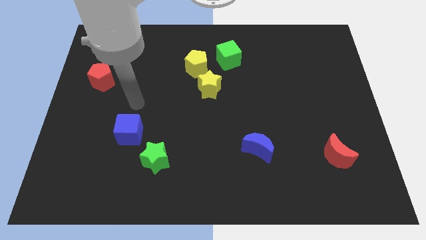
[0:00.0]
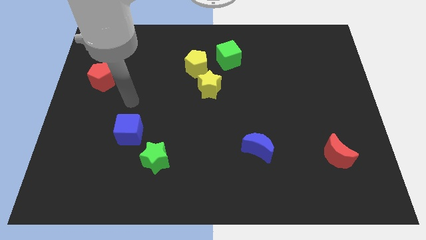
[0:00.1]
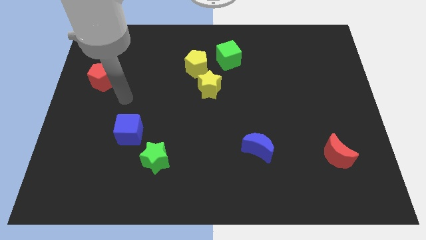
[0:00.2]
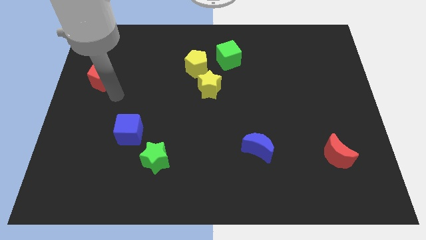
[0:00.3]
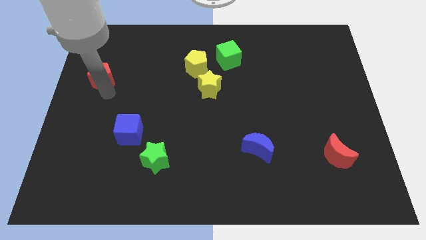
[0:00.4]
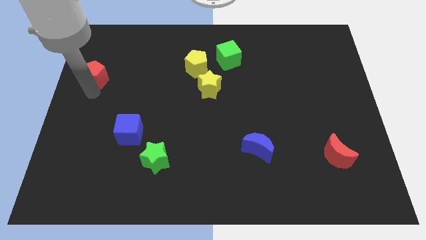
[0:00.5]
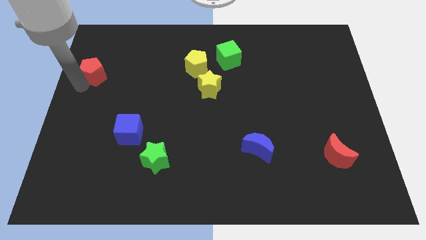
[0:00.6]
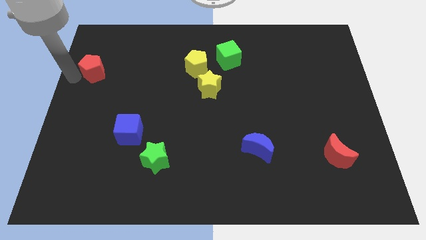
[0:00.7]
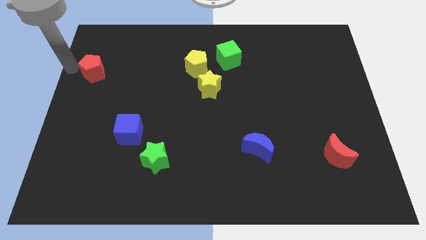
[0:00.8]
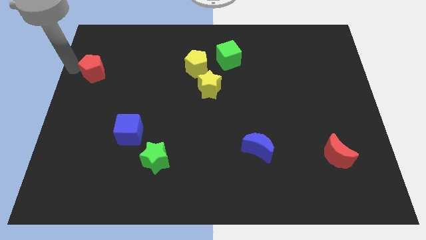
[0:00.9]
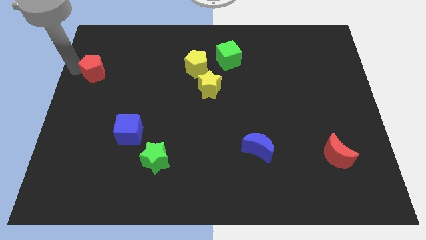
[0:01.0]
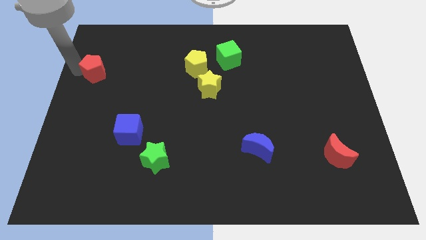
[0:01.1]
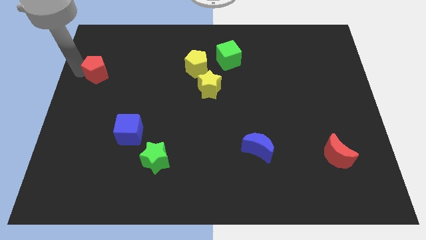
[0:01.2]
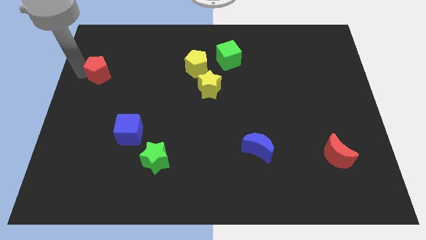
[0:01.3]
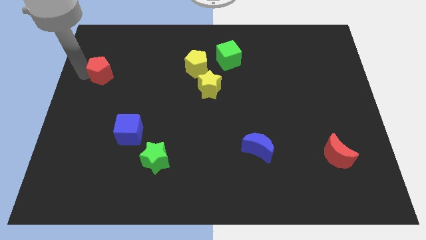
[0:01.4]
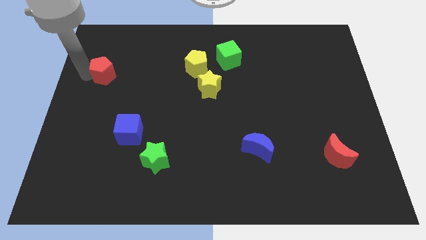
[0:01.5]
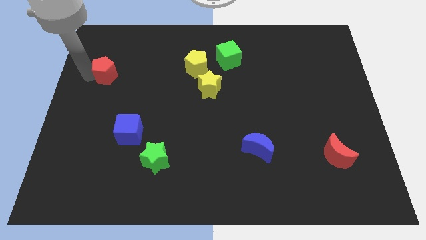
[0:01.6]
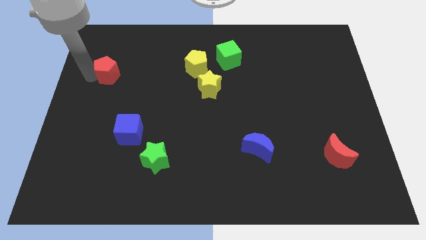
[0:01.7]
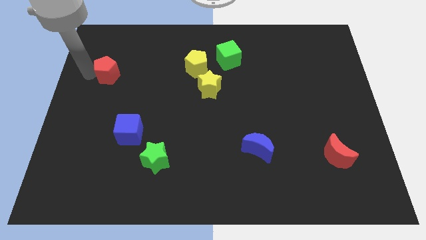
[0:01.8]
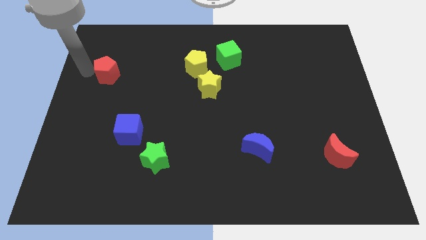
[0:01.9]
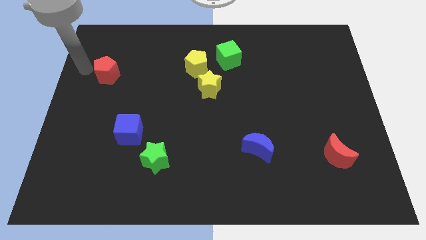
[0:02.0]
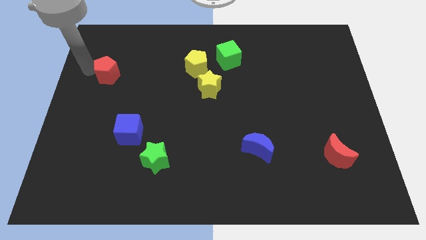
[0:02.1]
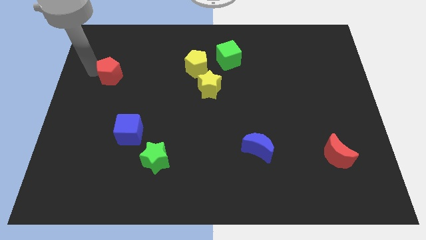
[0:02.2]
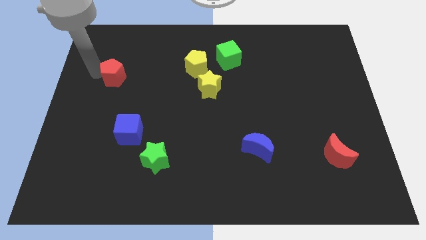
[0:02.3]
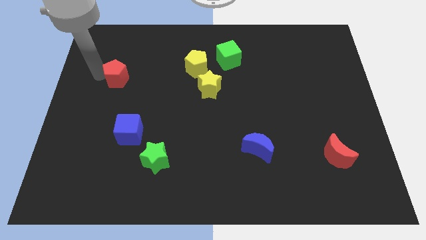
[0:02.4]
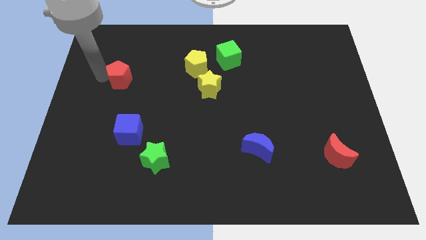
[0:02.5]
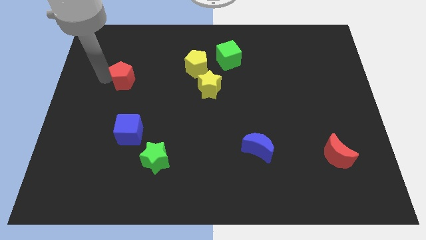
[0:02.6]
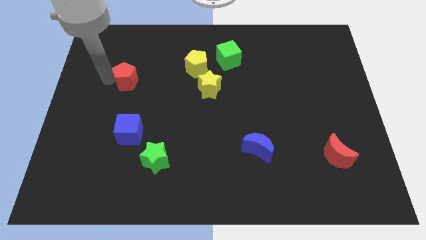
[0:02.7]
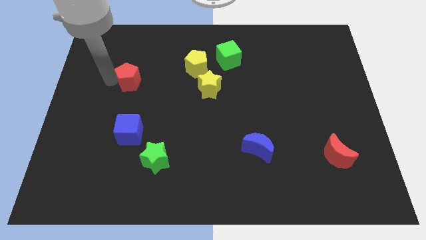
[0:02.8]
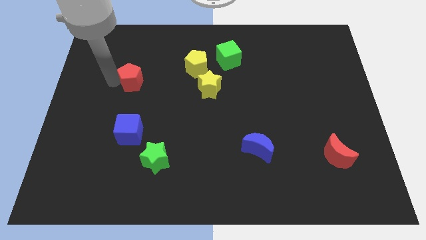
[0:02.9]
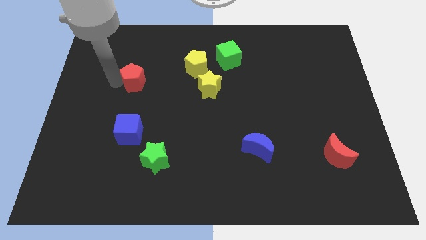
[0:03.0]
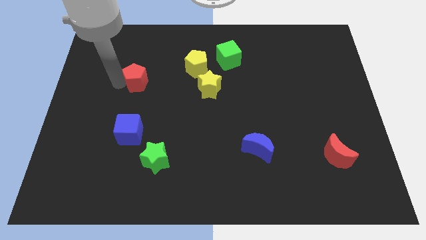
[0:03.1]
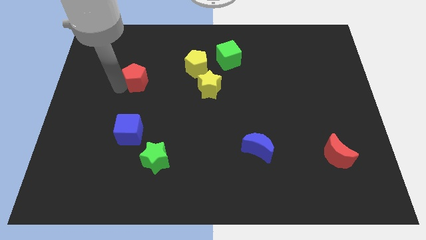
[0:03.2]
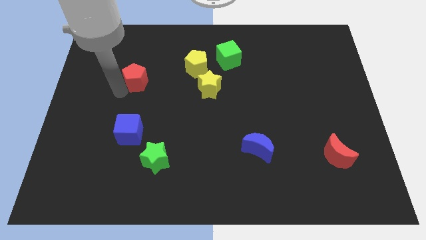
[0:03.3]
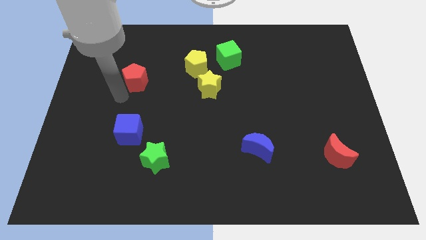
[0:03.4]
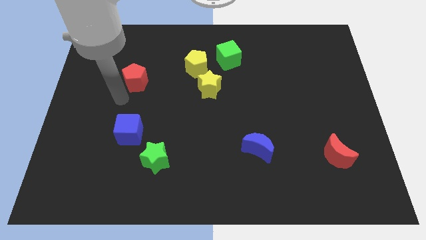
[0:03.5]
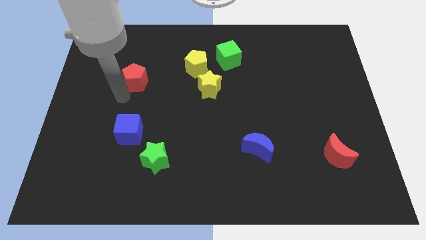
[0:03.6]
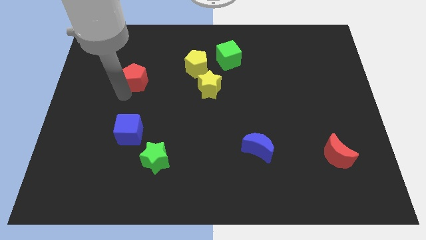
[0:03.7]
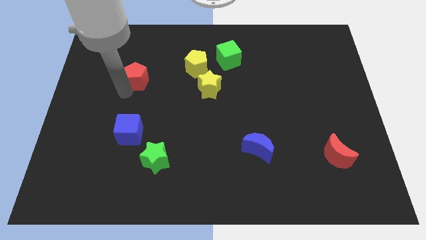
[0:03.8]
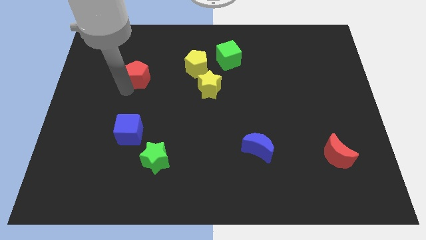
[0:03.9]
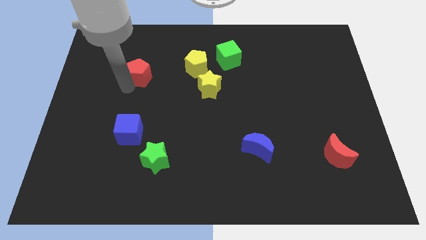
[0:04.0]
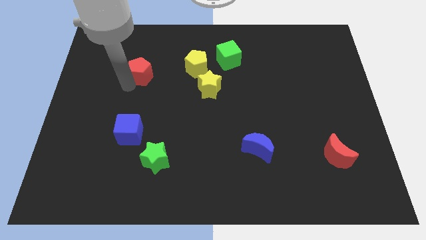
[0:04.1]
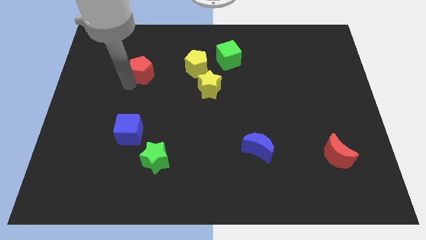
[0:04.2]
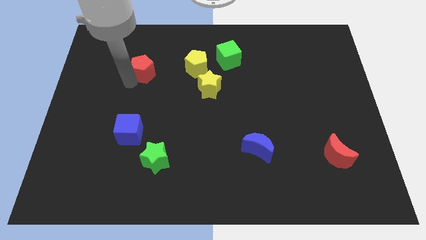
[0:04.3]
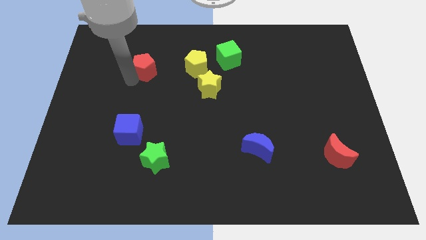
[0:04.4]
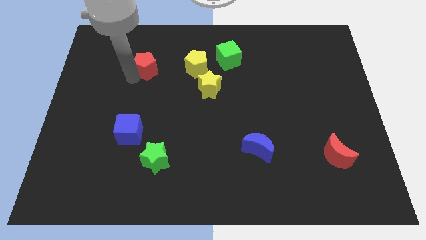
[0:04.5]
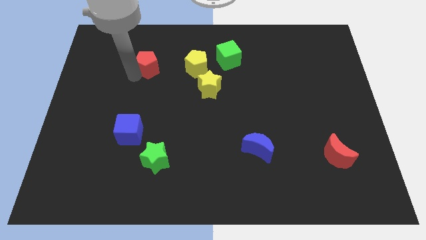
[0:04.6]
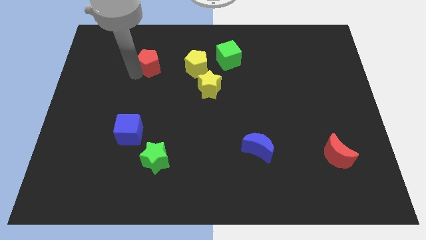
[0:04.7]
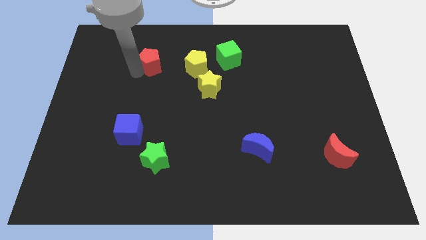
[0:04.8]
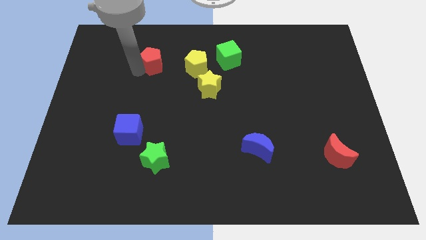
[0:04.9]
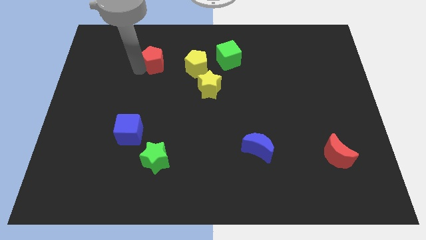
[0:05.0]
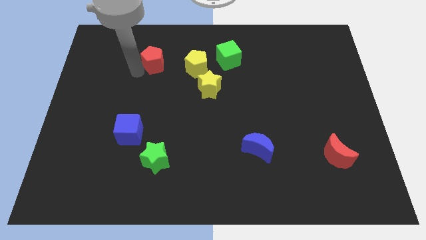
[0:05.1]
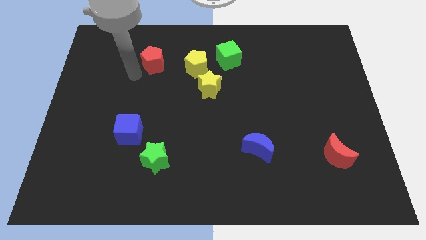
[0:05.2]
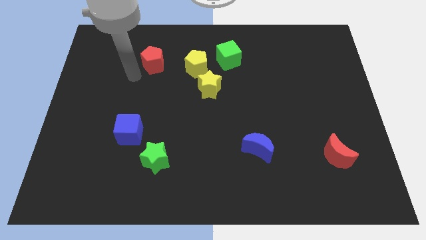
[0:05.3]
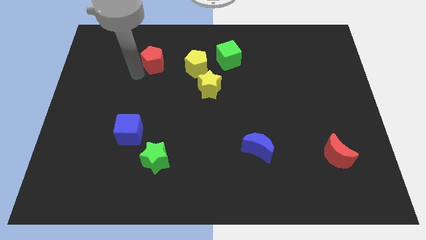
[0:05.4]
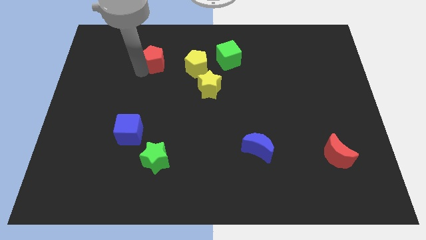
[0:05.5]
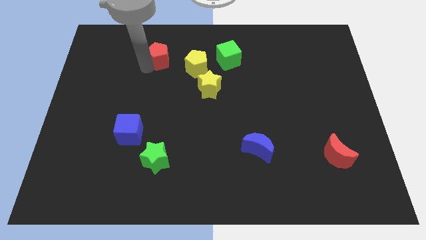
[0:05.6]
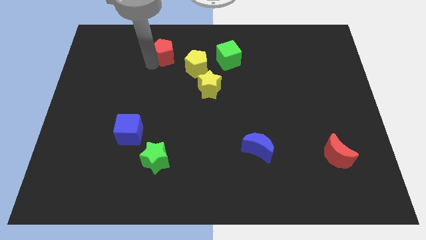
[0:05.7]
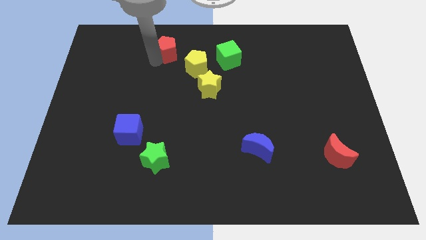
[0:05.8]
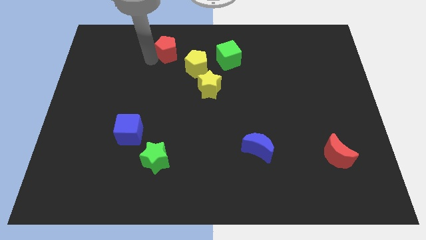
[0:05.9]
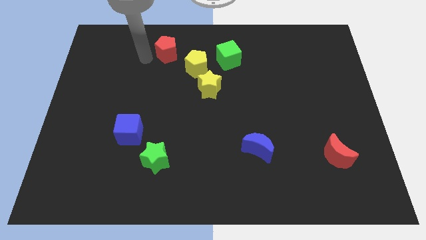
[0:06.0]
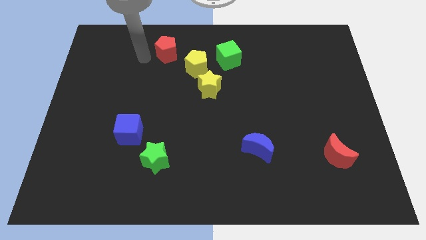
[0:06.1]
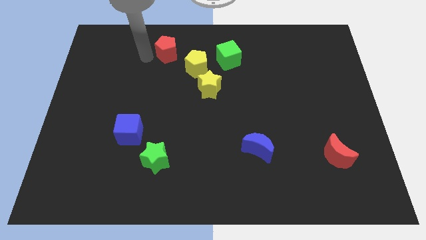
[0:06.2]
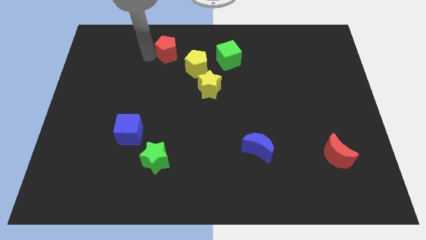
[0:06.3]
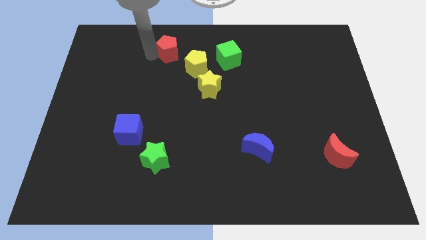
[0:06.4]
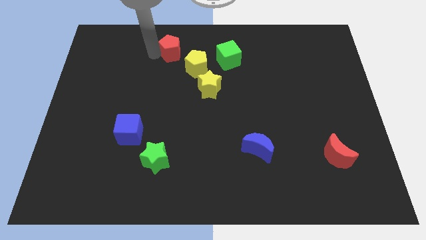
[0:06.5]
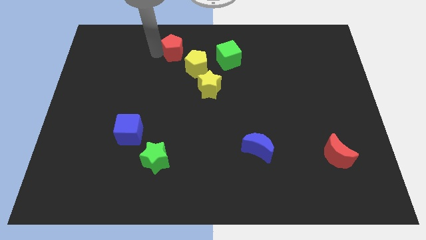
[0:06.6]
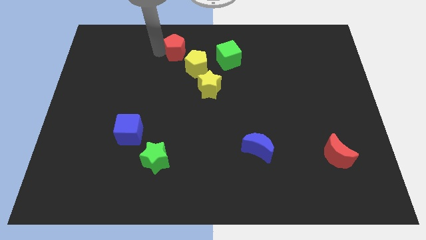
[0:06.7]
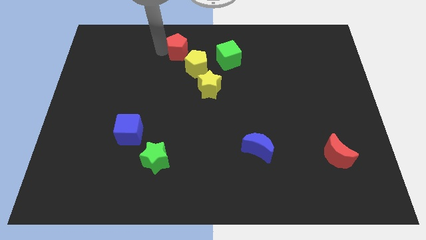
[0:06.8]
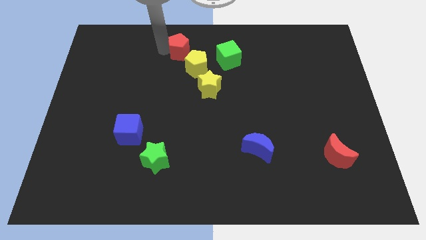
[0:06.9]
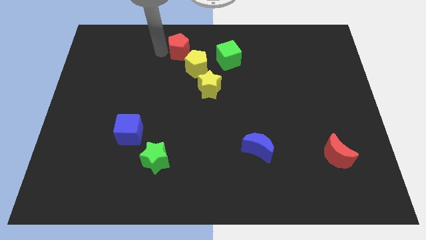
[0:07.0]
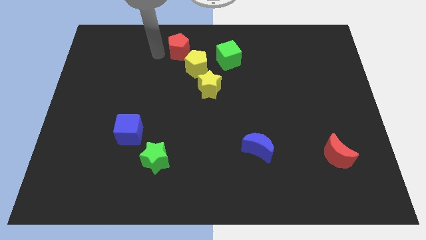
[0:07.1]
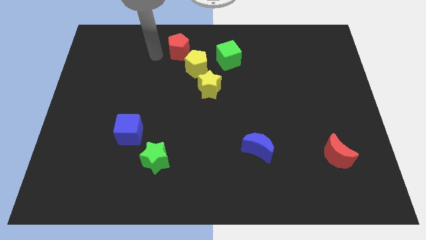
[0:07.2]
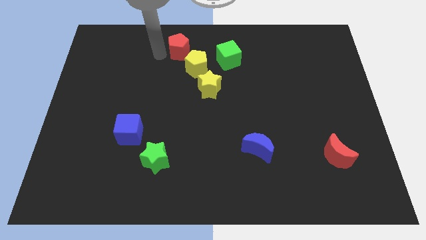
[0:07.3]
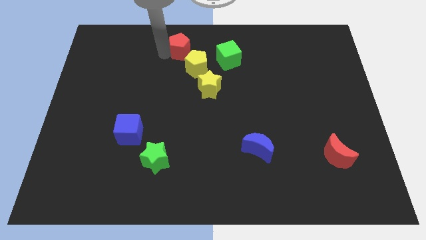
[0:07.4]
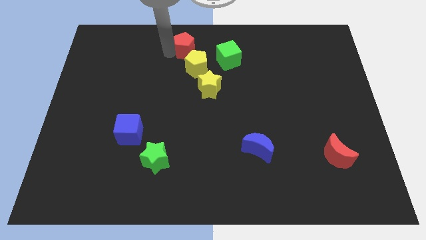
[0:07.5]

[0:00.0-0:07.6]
slide the red pentagon to the top
